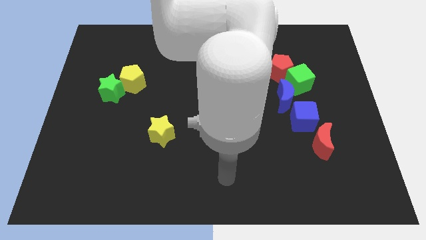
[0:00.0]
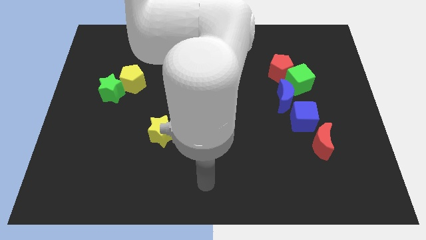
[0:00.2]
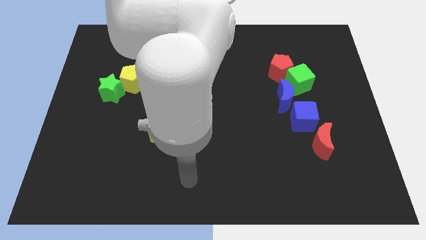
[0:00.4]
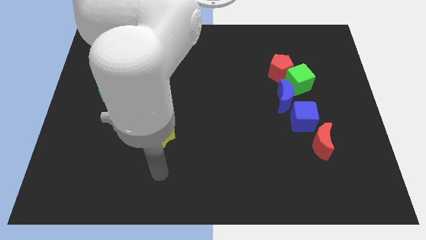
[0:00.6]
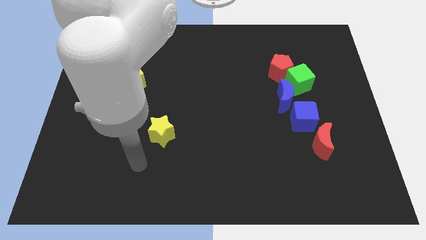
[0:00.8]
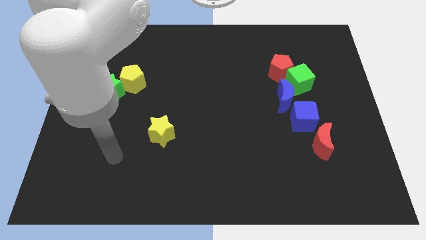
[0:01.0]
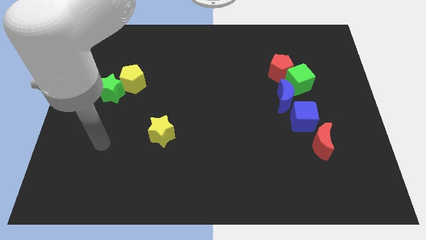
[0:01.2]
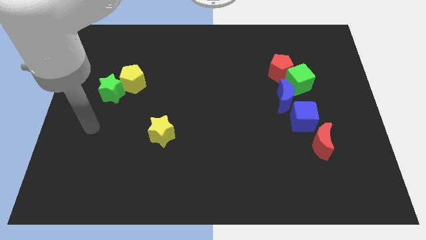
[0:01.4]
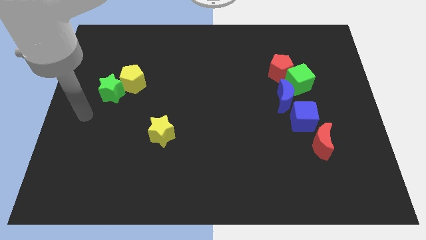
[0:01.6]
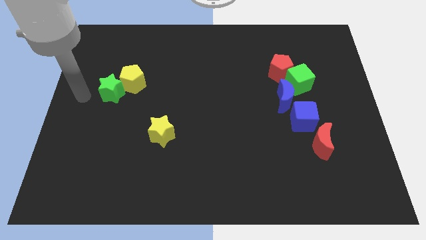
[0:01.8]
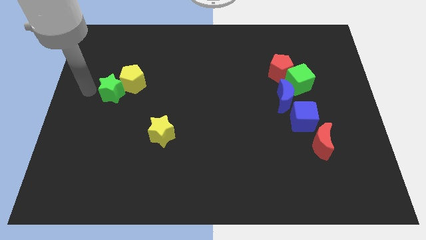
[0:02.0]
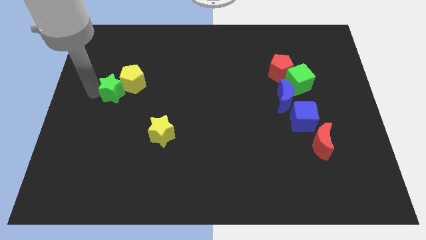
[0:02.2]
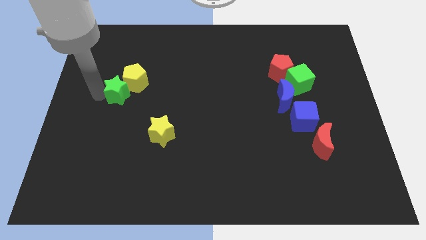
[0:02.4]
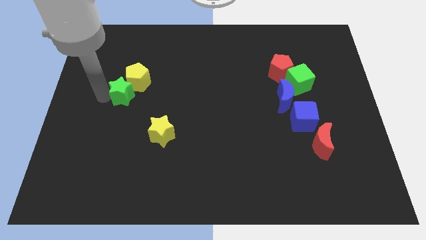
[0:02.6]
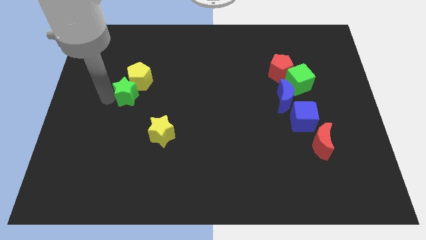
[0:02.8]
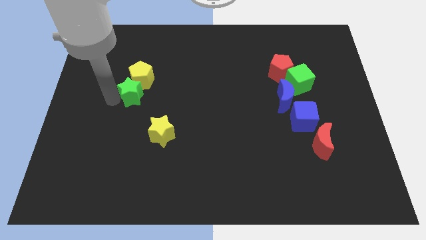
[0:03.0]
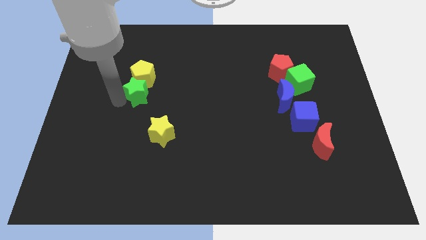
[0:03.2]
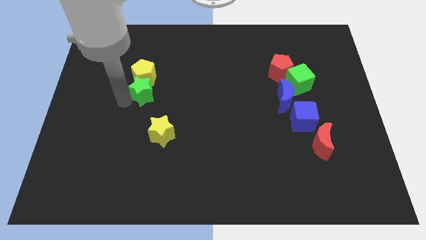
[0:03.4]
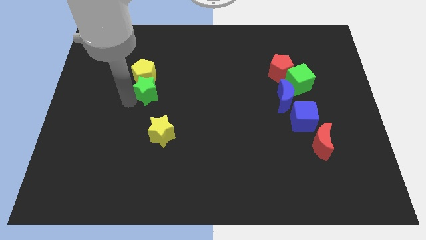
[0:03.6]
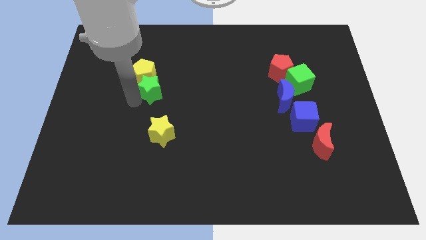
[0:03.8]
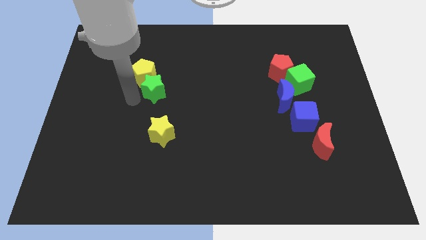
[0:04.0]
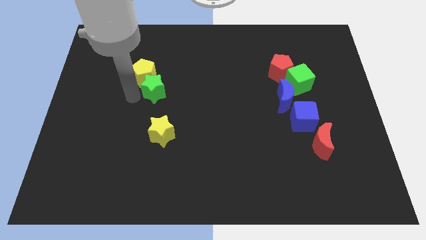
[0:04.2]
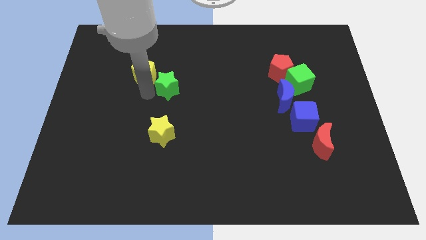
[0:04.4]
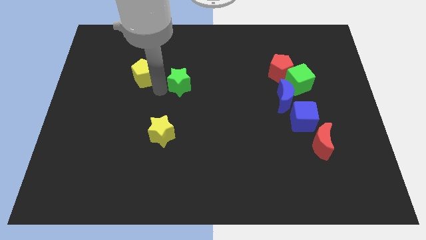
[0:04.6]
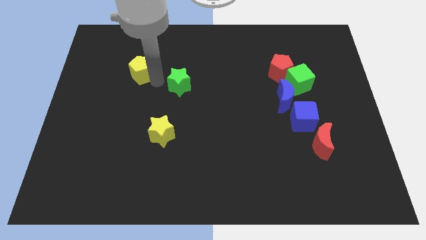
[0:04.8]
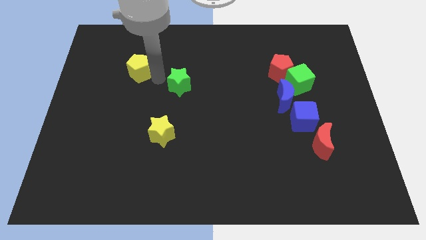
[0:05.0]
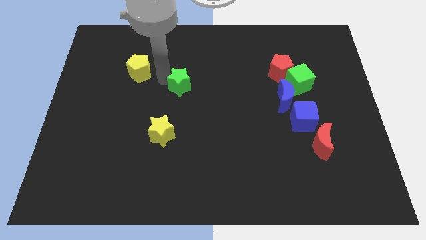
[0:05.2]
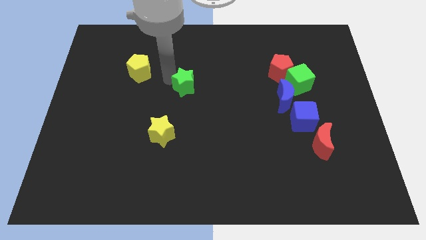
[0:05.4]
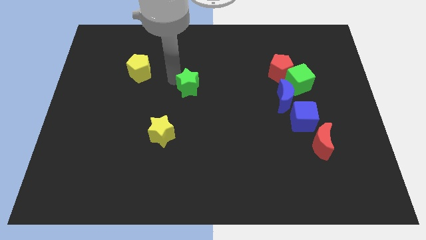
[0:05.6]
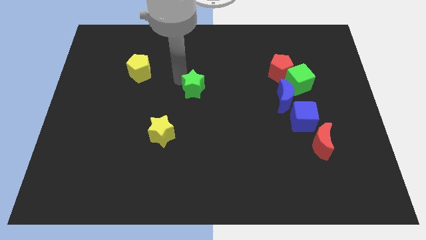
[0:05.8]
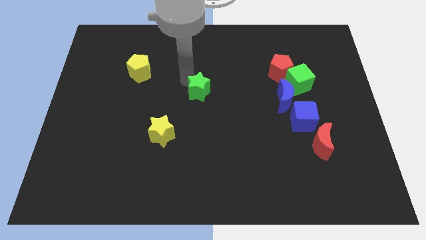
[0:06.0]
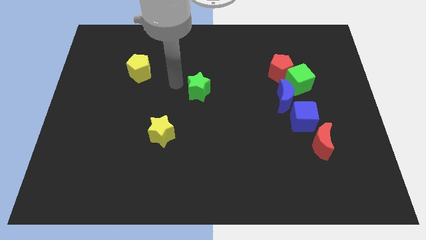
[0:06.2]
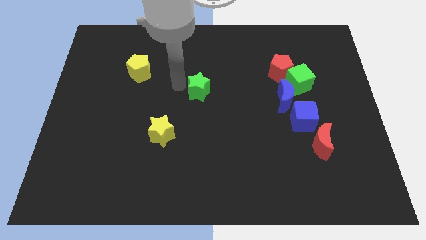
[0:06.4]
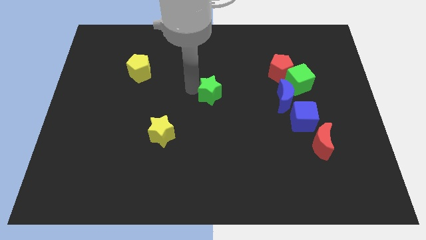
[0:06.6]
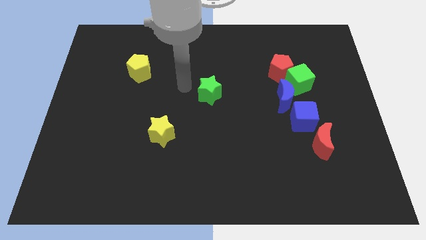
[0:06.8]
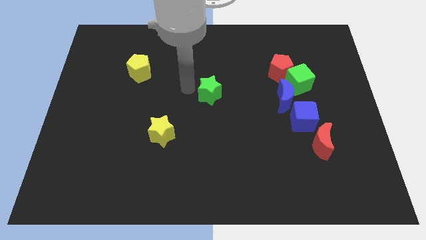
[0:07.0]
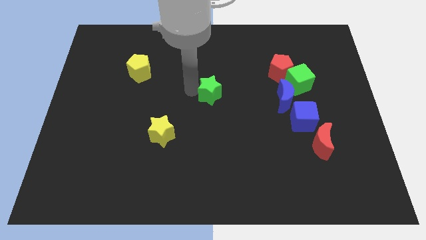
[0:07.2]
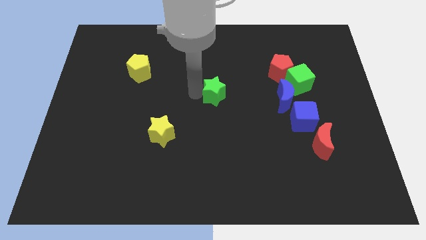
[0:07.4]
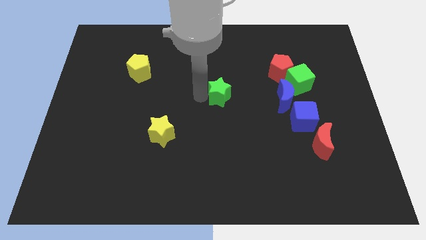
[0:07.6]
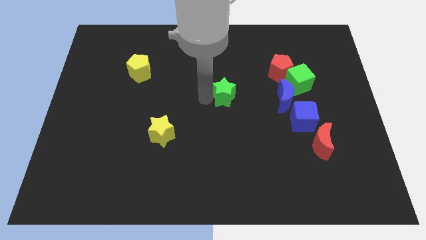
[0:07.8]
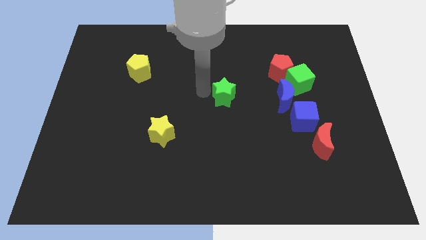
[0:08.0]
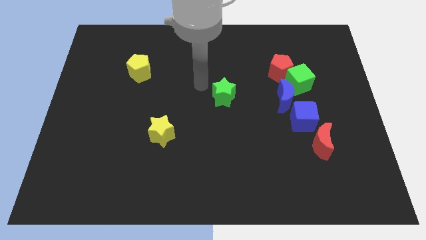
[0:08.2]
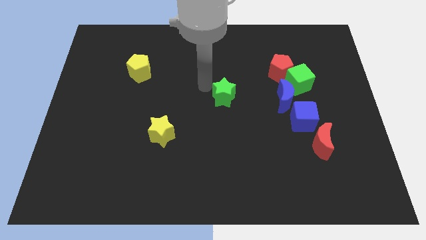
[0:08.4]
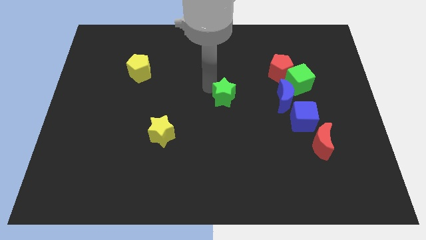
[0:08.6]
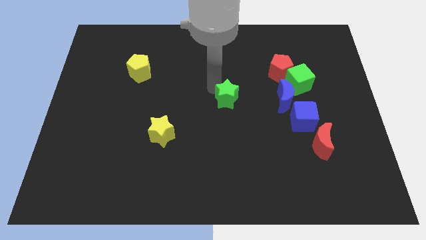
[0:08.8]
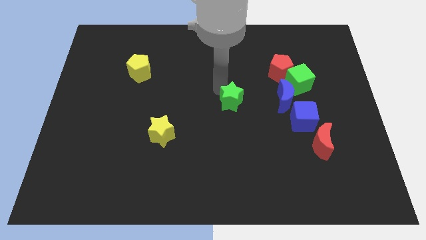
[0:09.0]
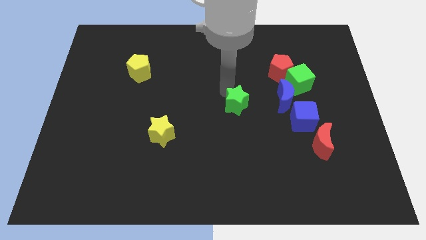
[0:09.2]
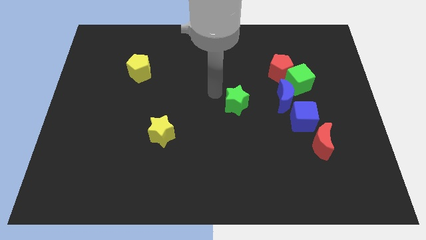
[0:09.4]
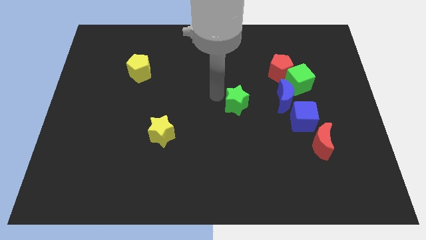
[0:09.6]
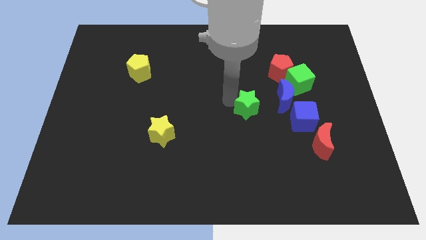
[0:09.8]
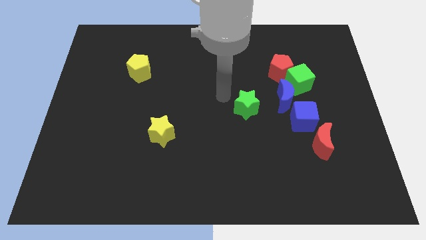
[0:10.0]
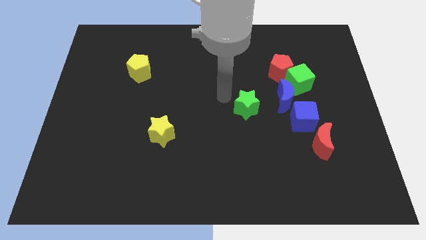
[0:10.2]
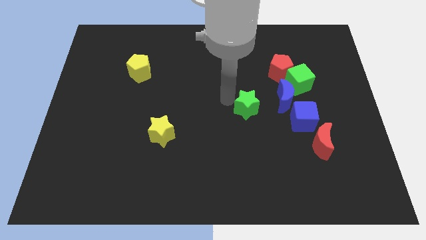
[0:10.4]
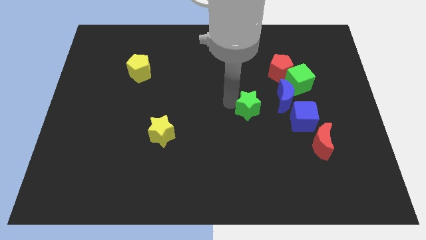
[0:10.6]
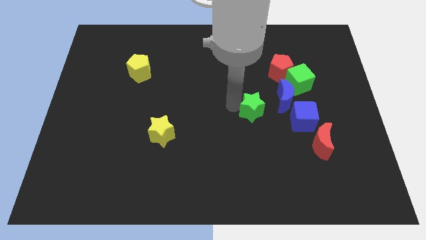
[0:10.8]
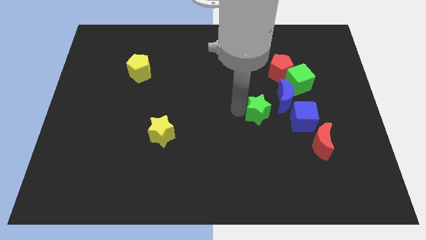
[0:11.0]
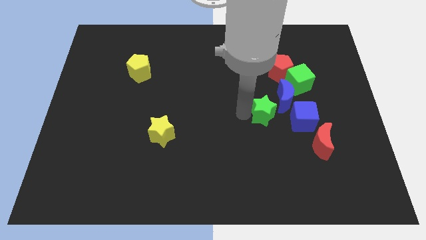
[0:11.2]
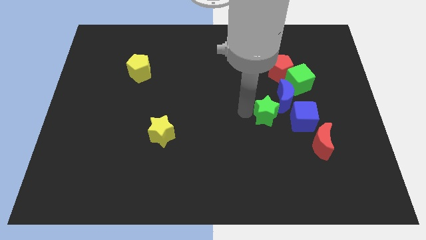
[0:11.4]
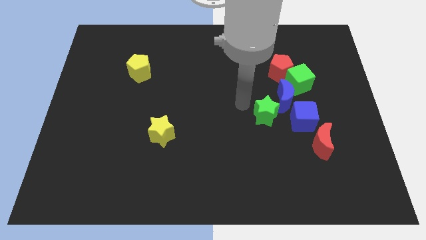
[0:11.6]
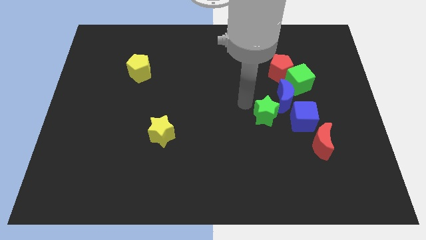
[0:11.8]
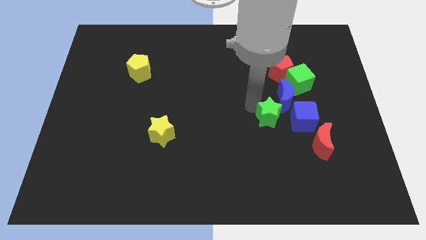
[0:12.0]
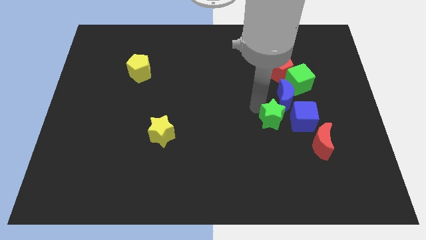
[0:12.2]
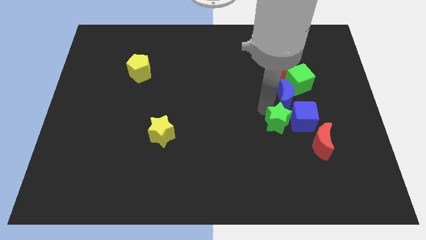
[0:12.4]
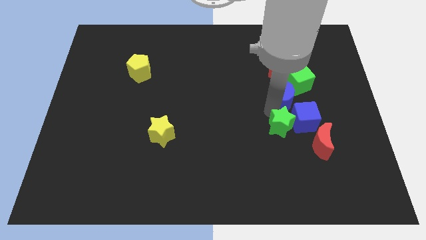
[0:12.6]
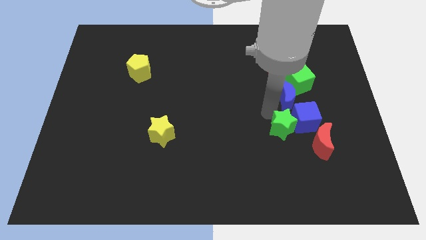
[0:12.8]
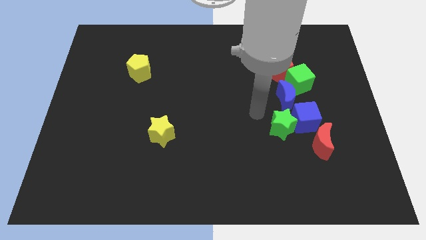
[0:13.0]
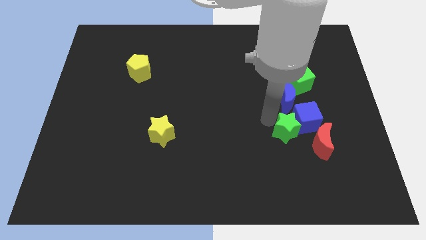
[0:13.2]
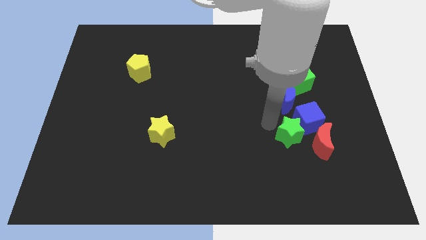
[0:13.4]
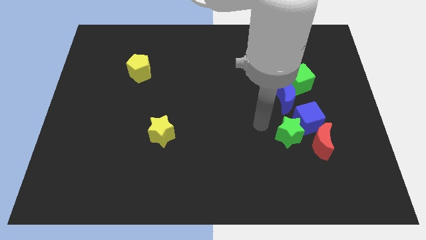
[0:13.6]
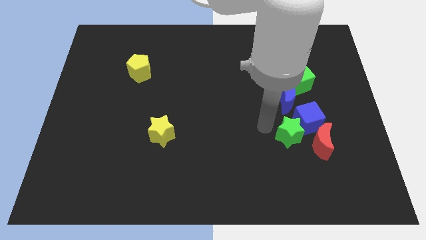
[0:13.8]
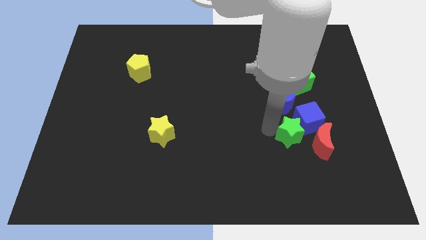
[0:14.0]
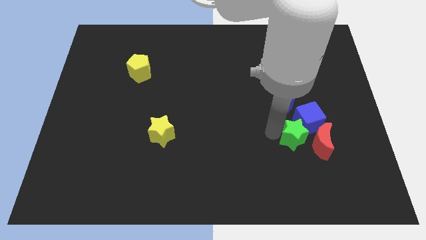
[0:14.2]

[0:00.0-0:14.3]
put the green star next to the red moon

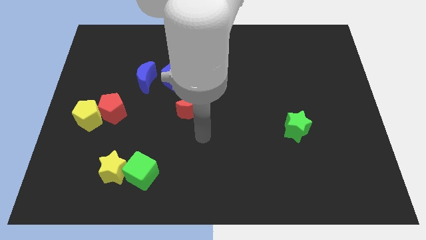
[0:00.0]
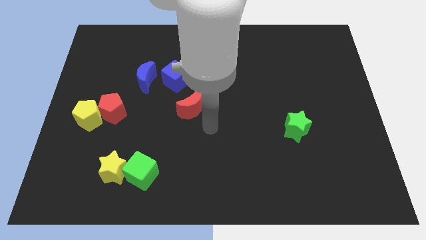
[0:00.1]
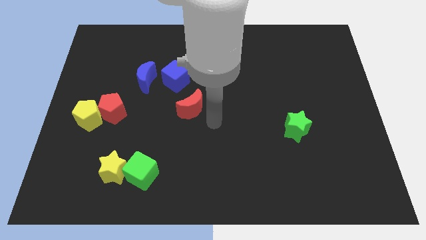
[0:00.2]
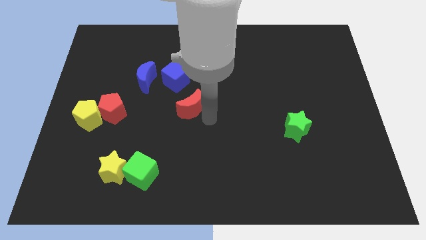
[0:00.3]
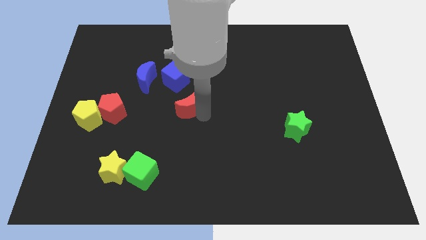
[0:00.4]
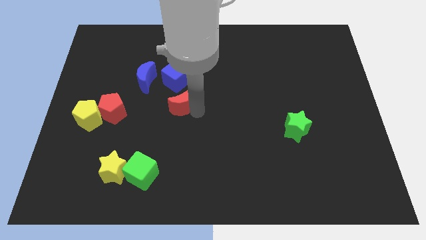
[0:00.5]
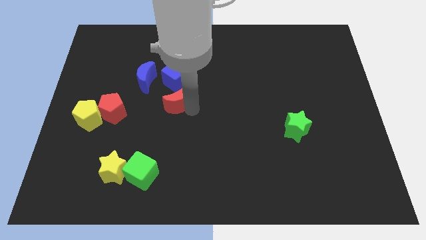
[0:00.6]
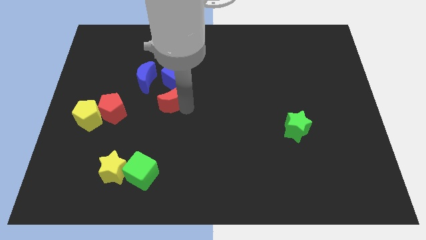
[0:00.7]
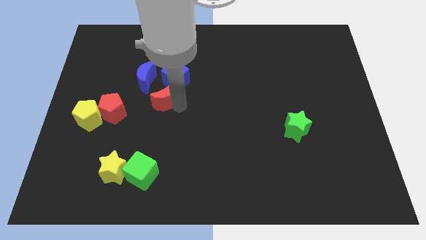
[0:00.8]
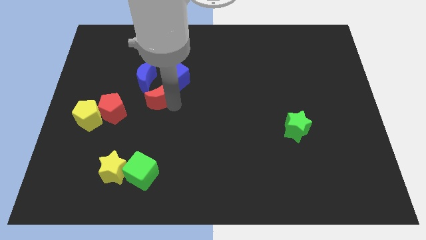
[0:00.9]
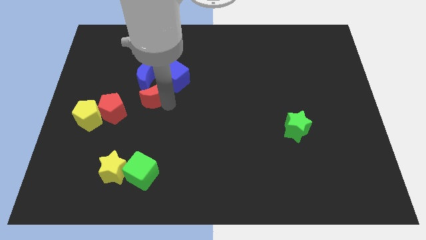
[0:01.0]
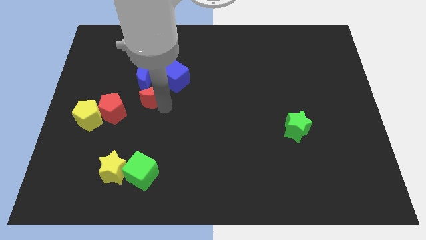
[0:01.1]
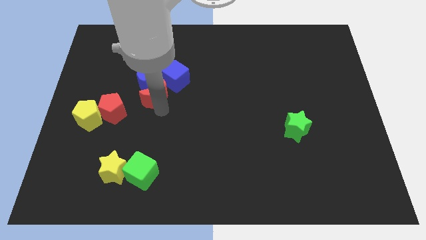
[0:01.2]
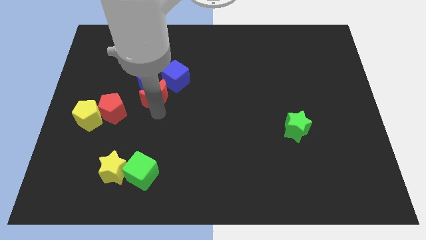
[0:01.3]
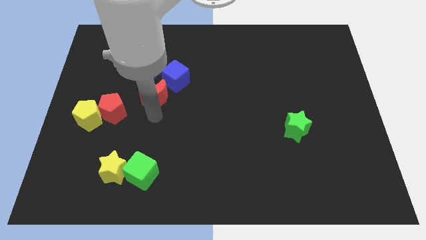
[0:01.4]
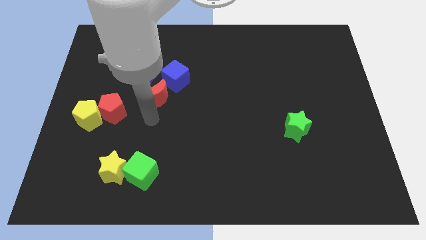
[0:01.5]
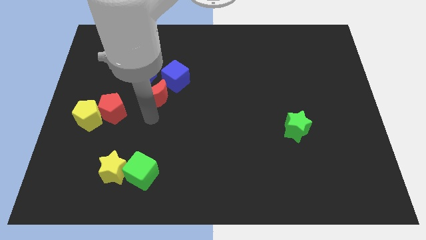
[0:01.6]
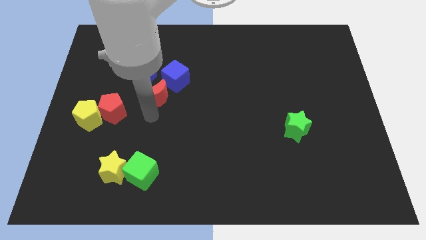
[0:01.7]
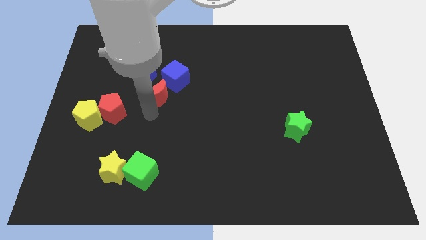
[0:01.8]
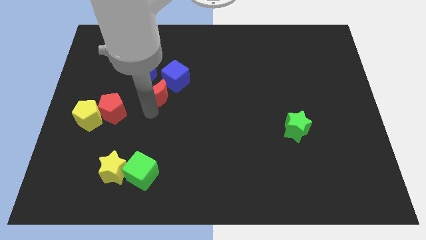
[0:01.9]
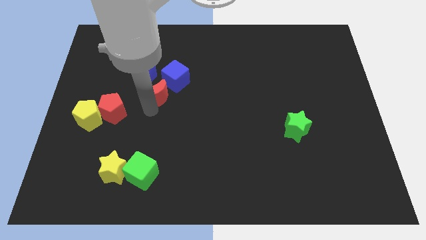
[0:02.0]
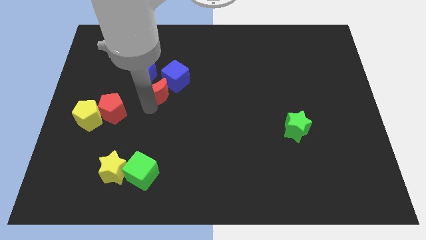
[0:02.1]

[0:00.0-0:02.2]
move the red moon close to the blue moon
